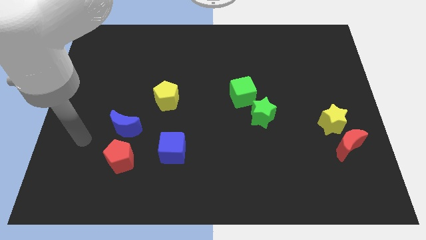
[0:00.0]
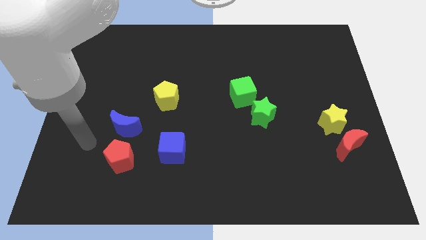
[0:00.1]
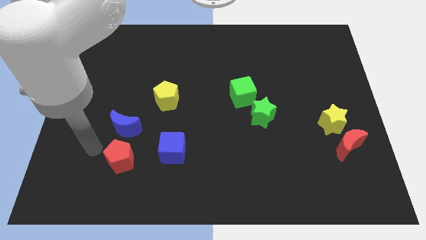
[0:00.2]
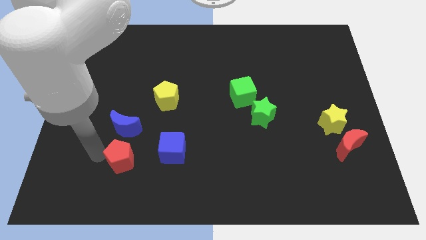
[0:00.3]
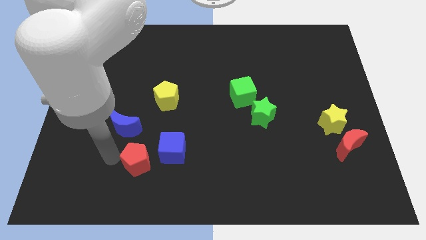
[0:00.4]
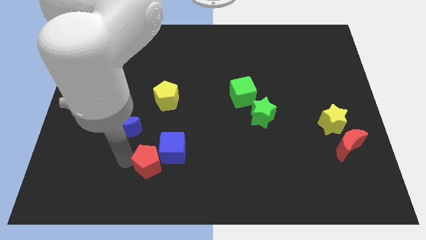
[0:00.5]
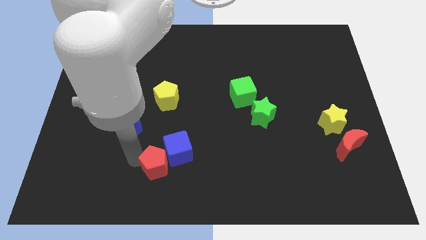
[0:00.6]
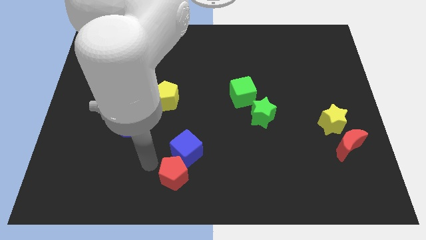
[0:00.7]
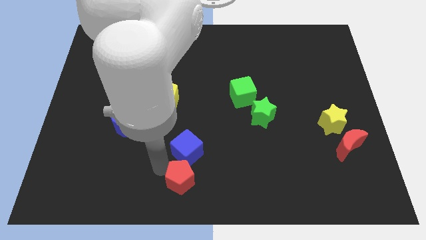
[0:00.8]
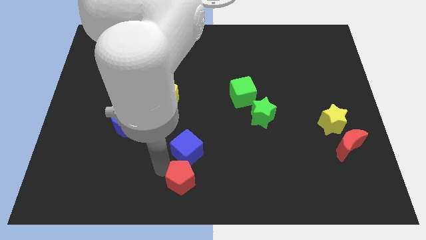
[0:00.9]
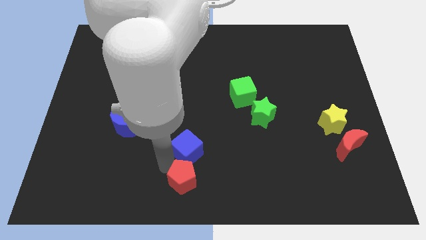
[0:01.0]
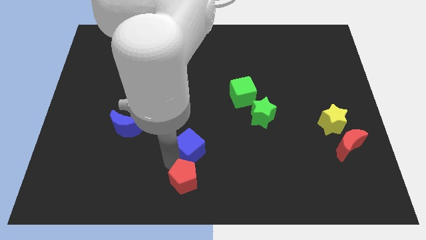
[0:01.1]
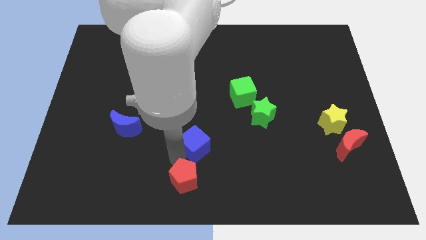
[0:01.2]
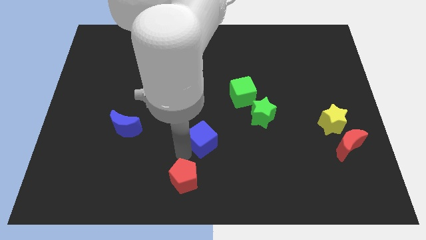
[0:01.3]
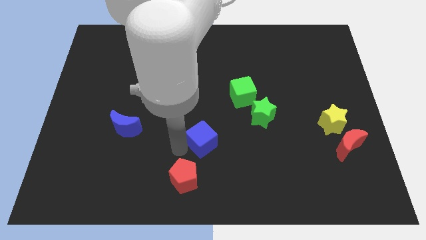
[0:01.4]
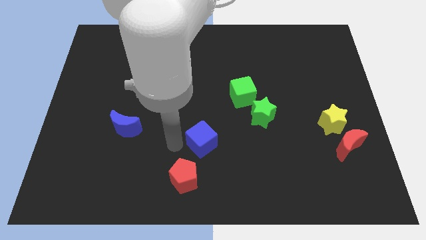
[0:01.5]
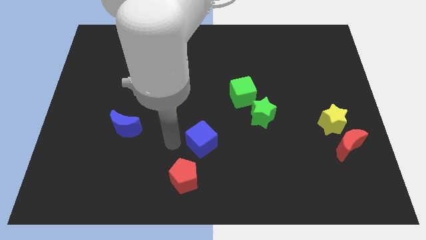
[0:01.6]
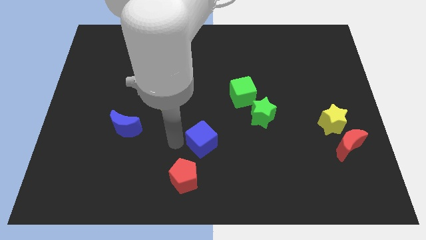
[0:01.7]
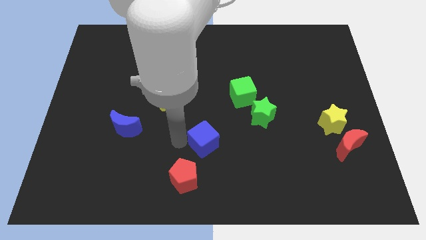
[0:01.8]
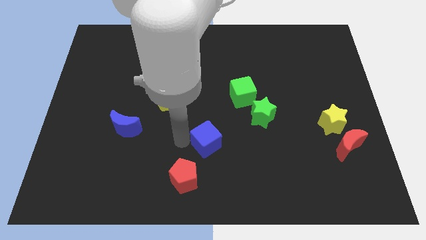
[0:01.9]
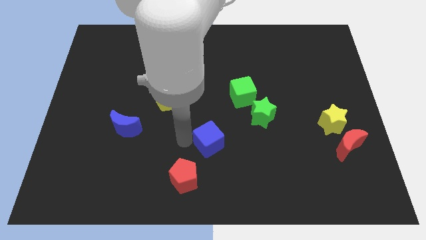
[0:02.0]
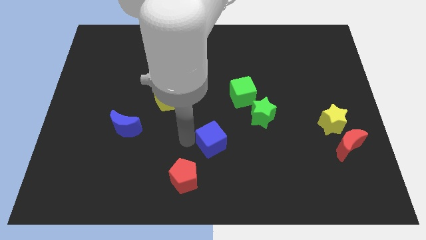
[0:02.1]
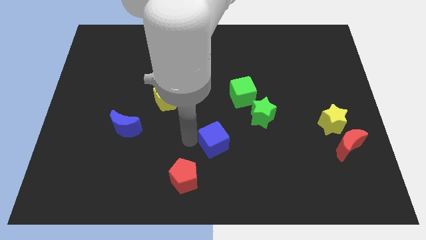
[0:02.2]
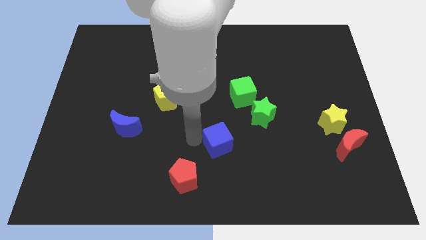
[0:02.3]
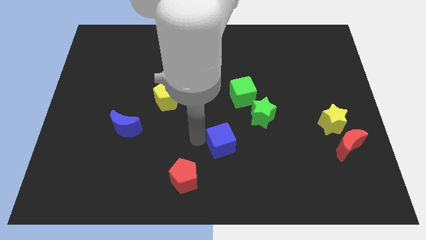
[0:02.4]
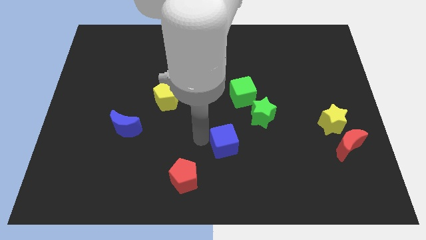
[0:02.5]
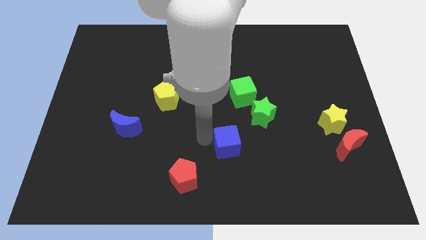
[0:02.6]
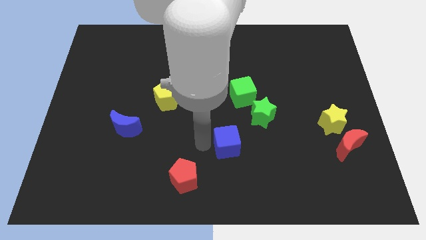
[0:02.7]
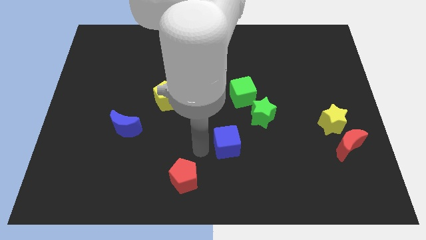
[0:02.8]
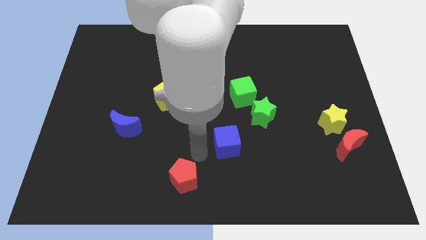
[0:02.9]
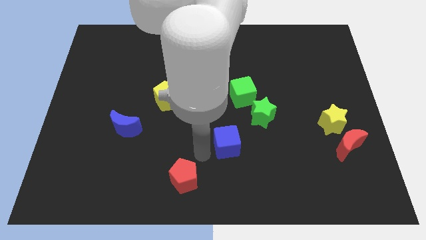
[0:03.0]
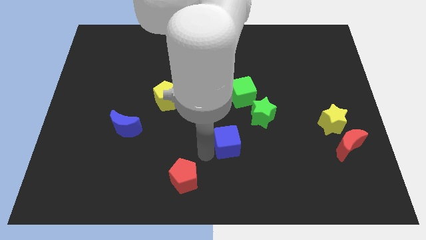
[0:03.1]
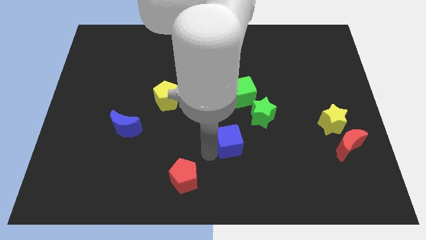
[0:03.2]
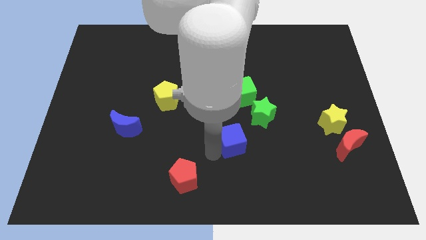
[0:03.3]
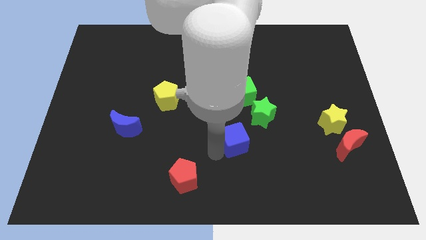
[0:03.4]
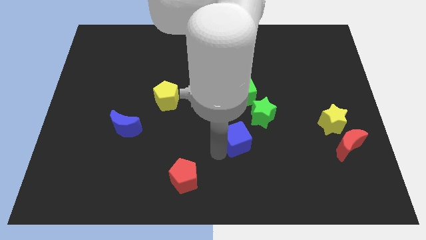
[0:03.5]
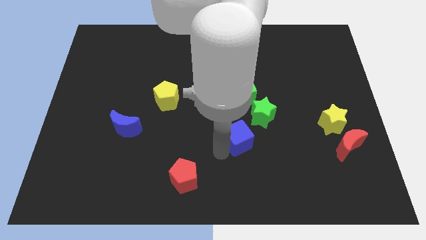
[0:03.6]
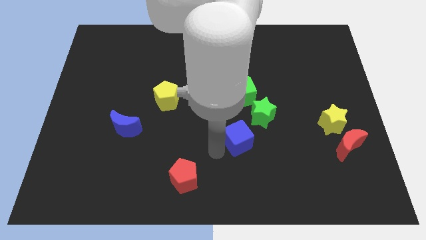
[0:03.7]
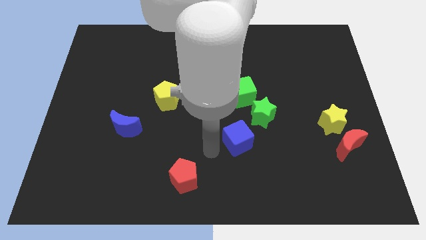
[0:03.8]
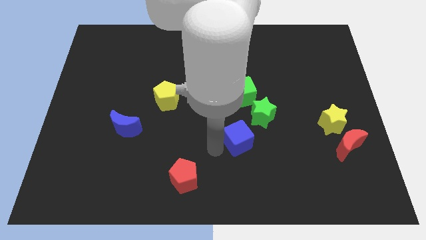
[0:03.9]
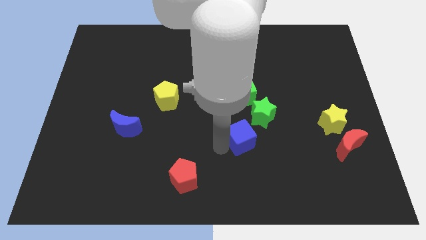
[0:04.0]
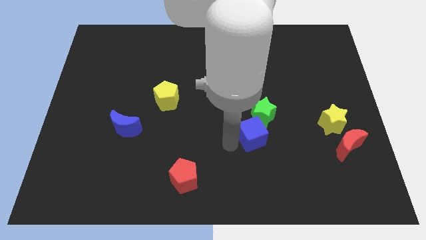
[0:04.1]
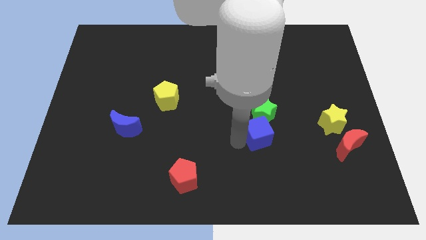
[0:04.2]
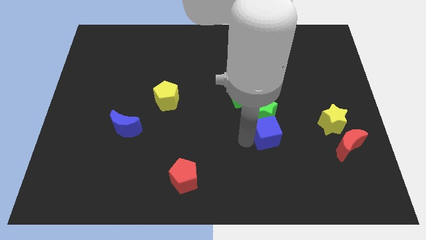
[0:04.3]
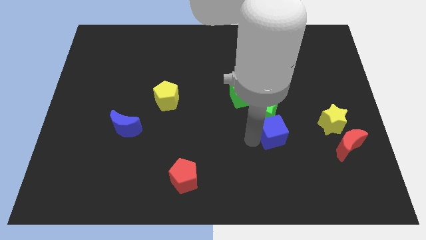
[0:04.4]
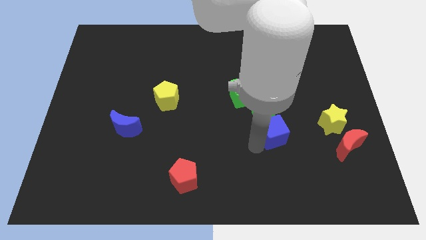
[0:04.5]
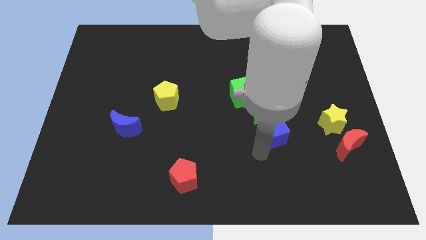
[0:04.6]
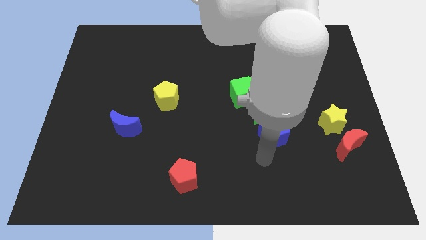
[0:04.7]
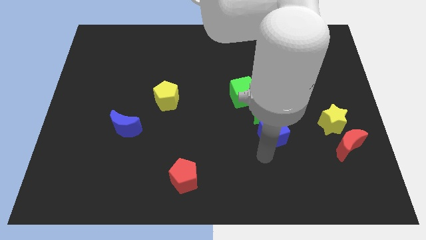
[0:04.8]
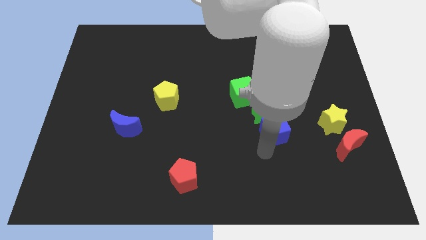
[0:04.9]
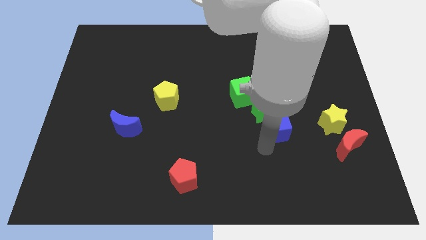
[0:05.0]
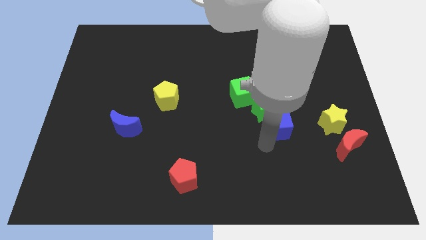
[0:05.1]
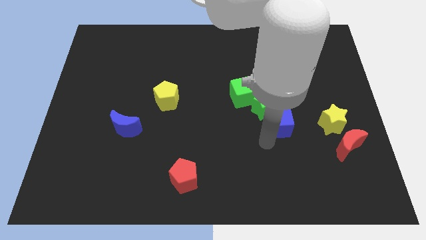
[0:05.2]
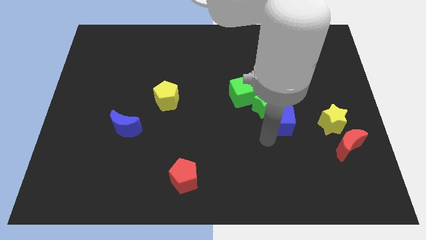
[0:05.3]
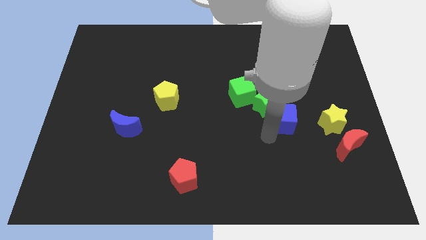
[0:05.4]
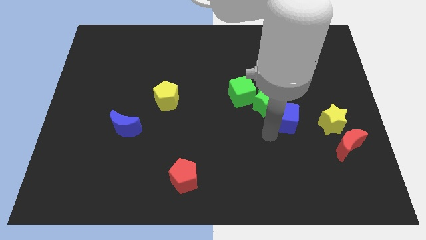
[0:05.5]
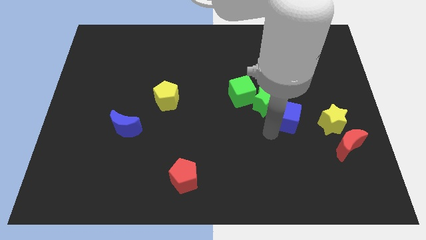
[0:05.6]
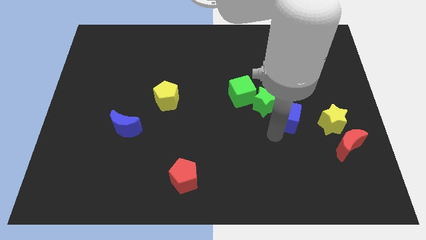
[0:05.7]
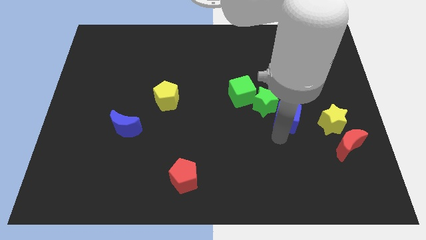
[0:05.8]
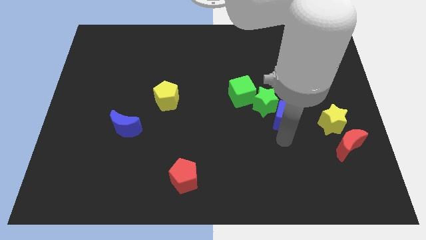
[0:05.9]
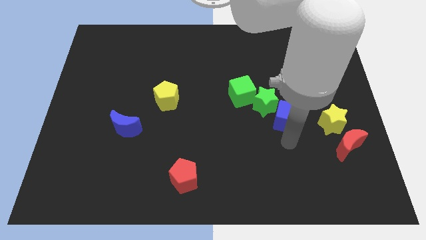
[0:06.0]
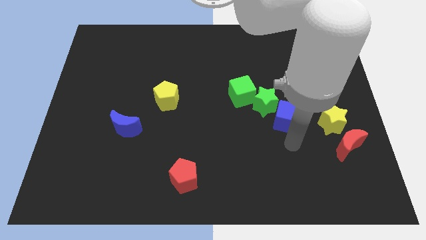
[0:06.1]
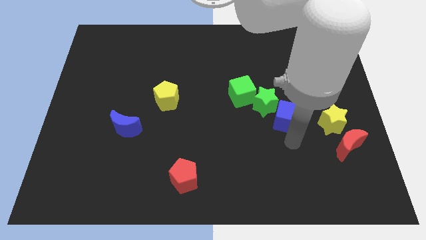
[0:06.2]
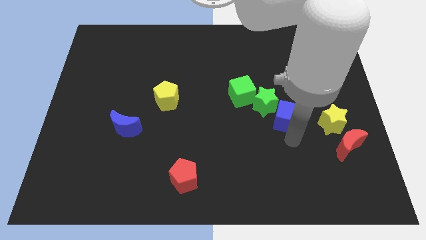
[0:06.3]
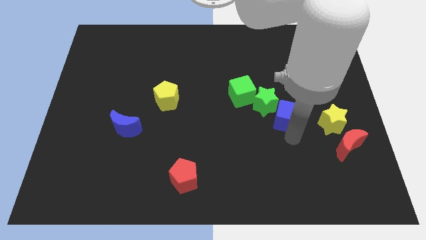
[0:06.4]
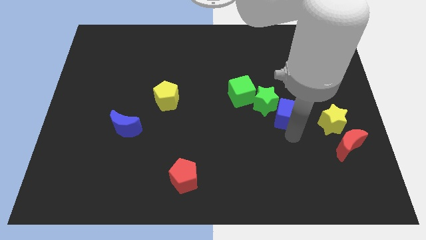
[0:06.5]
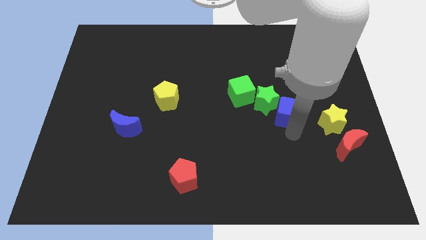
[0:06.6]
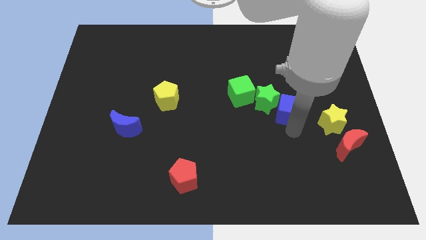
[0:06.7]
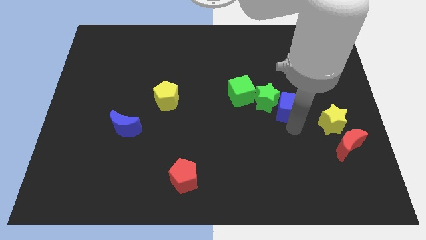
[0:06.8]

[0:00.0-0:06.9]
slide the blue cube to the right side of the green cube

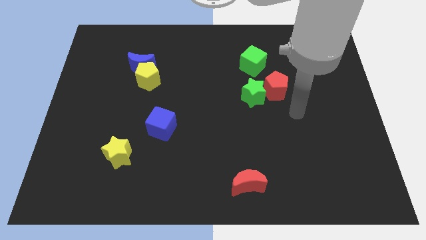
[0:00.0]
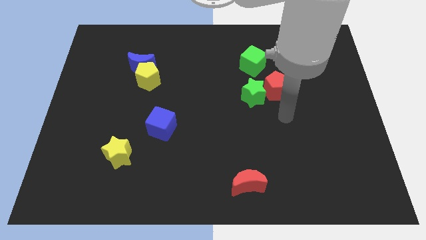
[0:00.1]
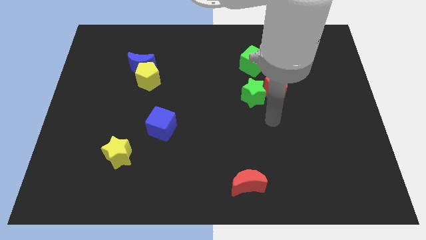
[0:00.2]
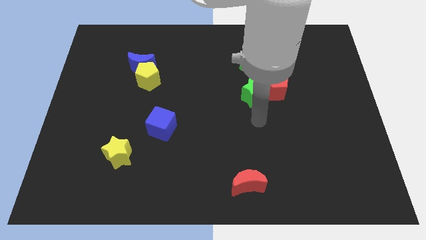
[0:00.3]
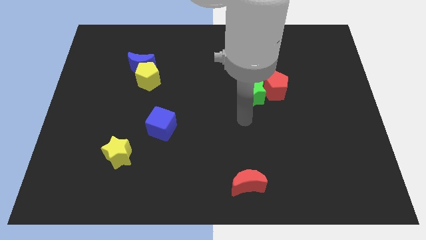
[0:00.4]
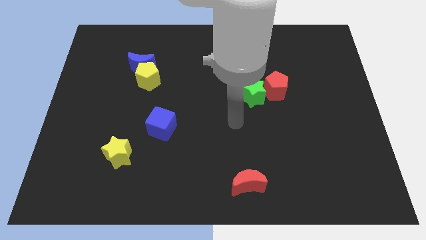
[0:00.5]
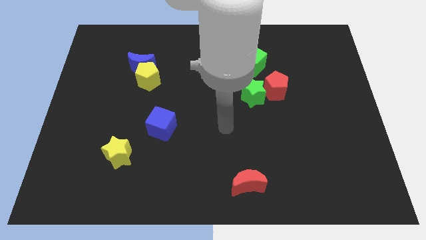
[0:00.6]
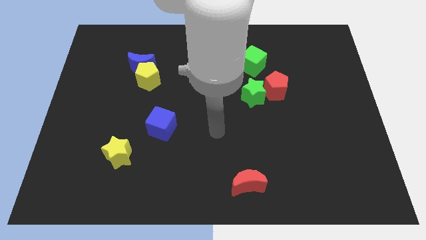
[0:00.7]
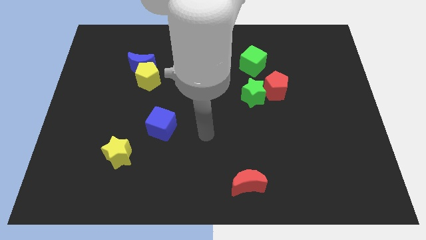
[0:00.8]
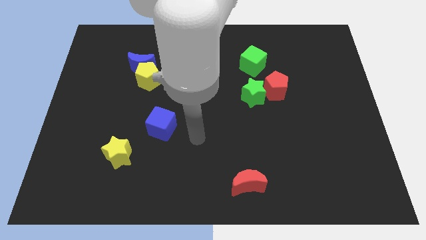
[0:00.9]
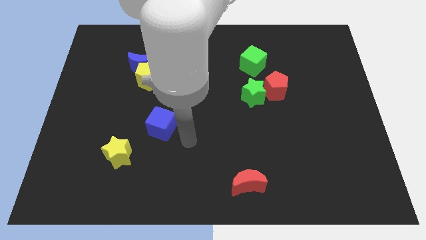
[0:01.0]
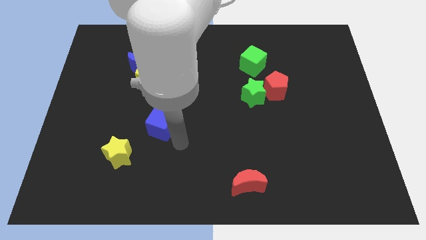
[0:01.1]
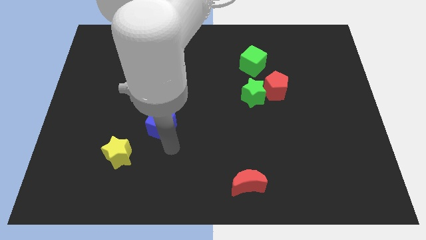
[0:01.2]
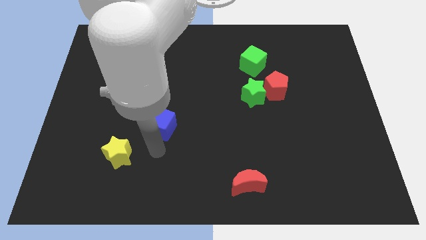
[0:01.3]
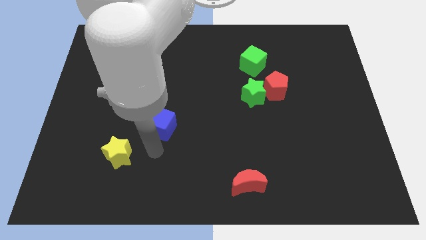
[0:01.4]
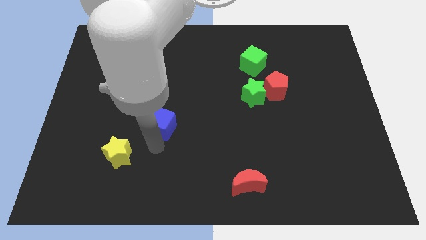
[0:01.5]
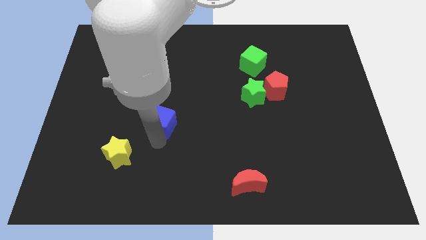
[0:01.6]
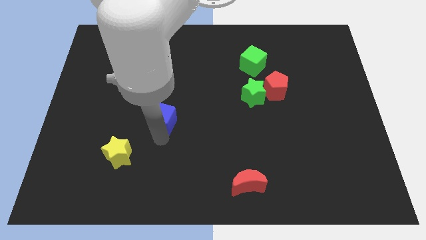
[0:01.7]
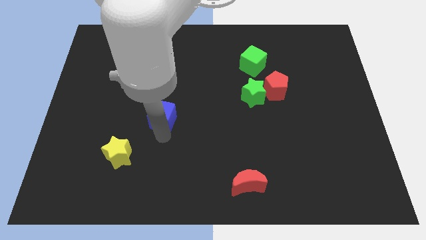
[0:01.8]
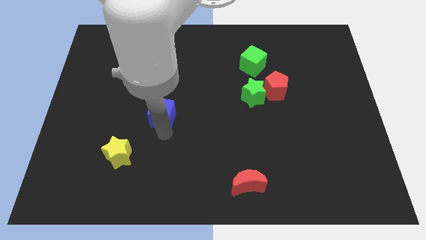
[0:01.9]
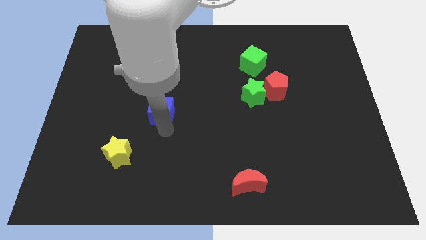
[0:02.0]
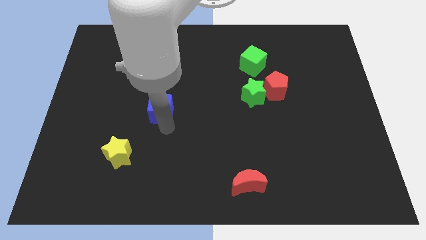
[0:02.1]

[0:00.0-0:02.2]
push the blue cube to the bottom right of the yellow pentagon
